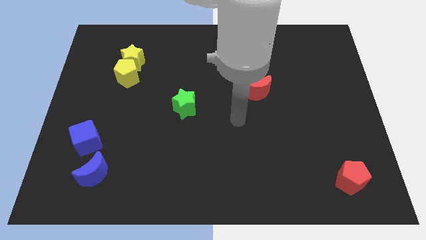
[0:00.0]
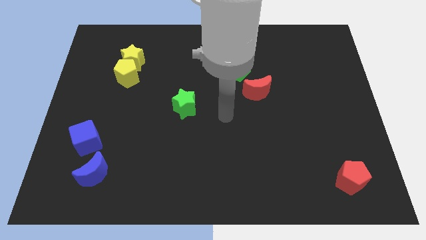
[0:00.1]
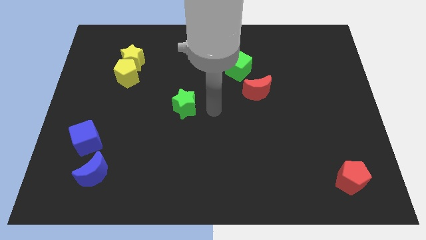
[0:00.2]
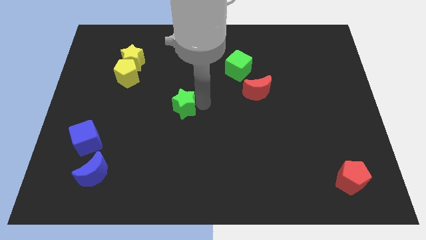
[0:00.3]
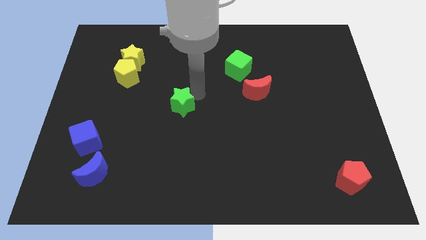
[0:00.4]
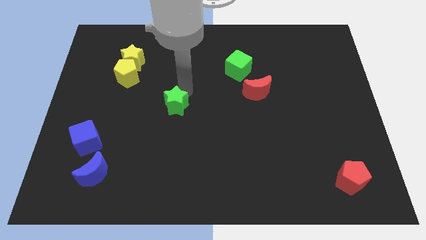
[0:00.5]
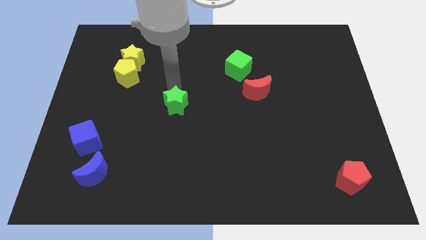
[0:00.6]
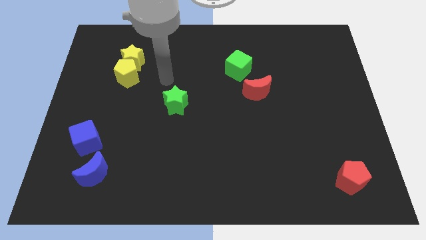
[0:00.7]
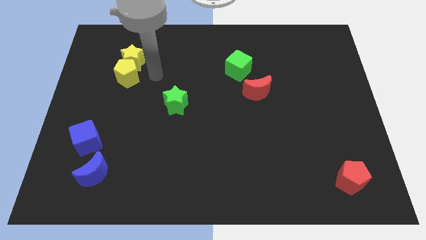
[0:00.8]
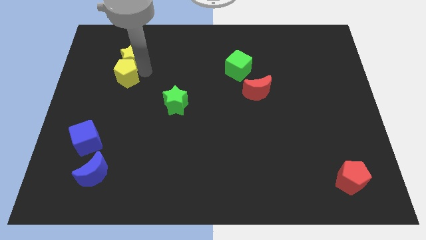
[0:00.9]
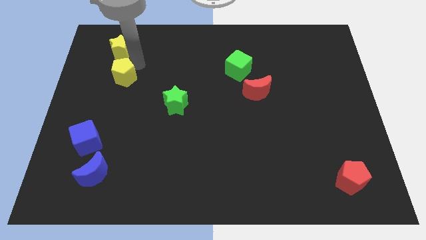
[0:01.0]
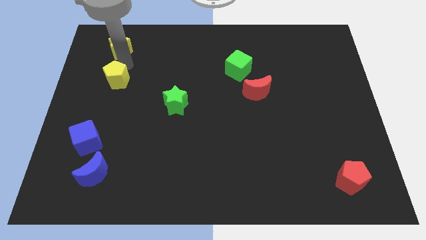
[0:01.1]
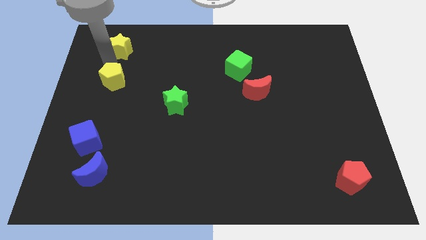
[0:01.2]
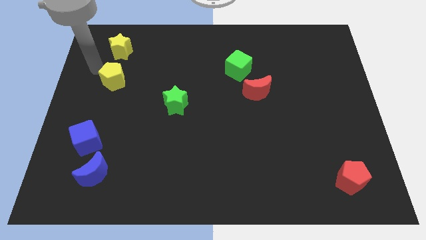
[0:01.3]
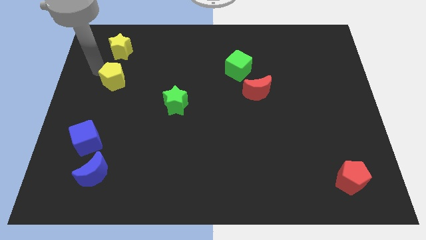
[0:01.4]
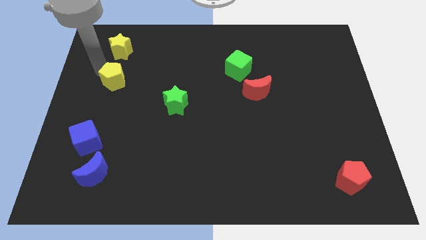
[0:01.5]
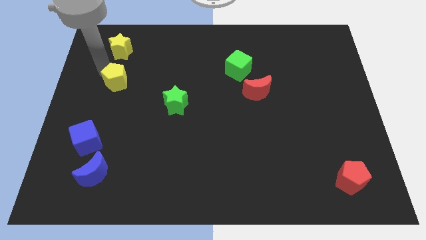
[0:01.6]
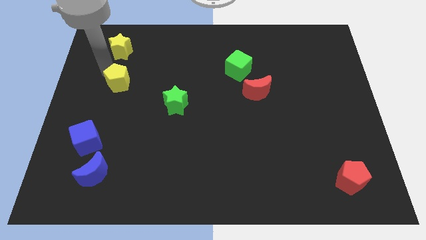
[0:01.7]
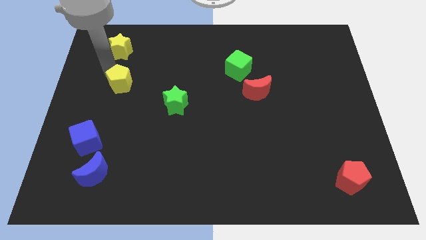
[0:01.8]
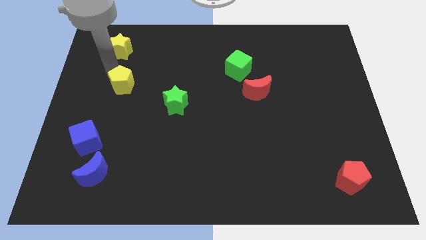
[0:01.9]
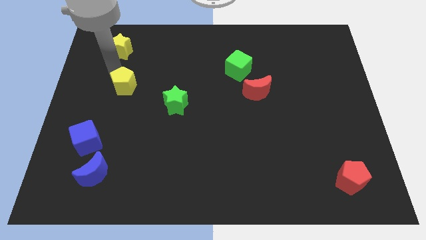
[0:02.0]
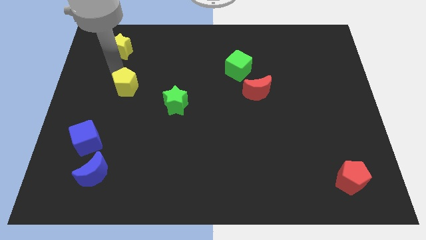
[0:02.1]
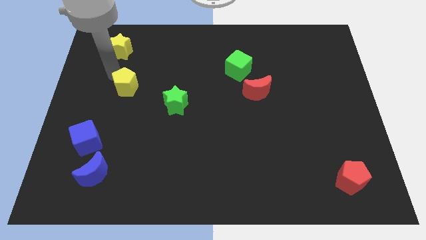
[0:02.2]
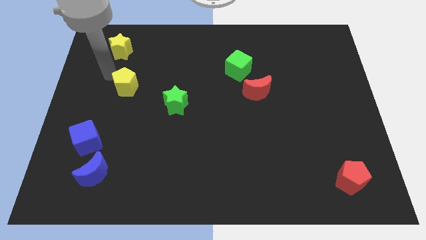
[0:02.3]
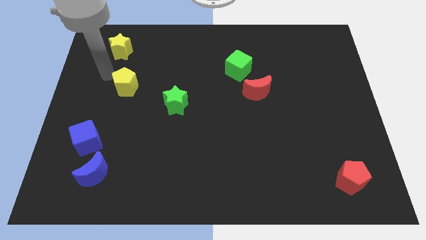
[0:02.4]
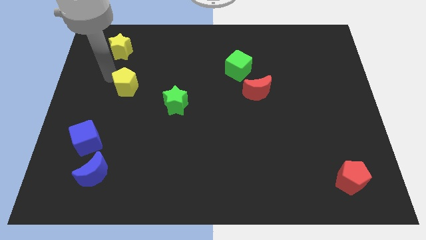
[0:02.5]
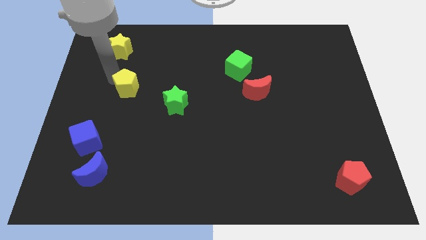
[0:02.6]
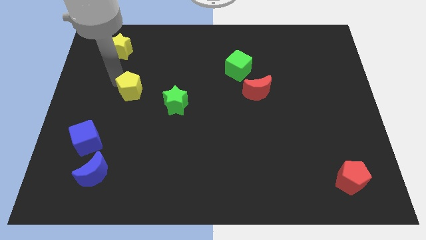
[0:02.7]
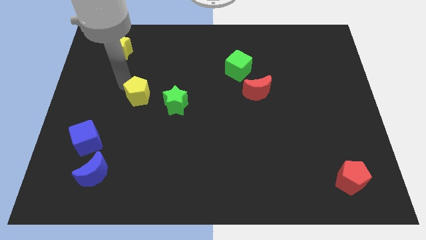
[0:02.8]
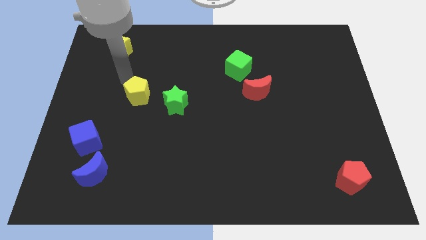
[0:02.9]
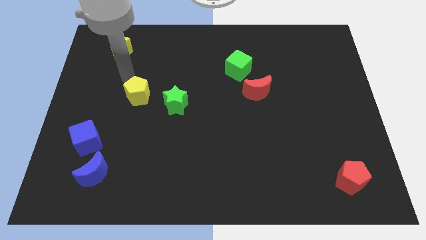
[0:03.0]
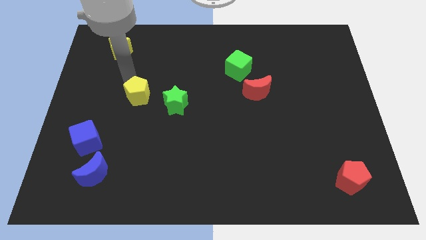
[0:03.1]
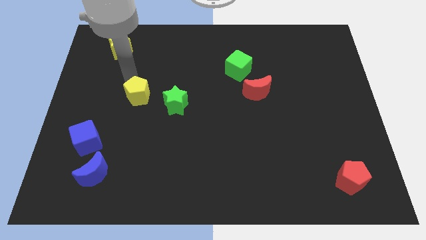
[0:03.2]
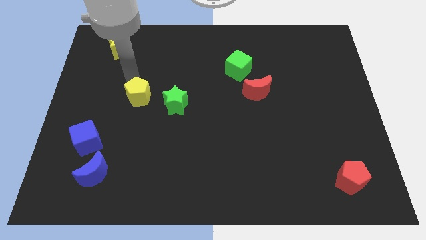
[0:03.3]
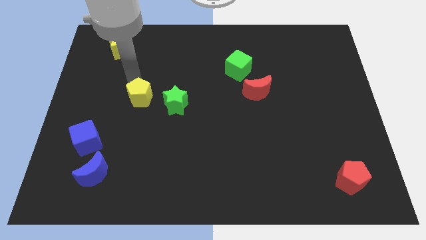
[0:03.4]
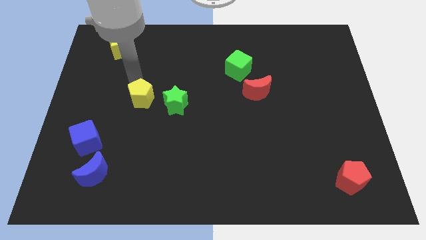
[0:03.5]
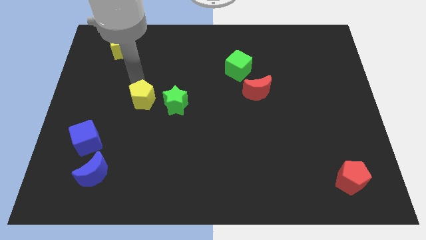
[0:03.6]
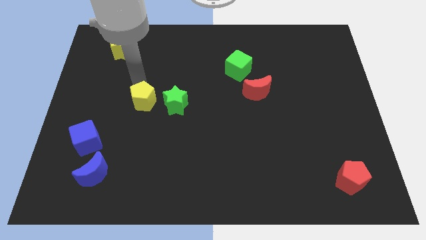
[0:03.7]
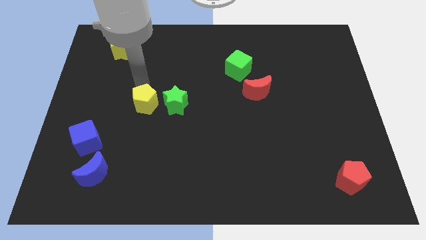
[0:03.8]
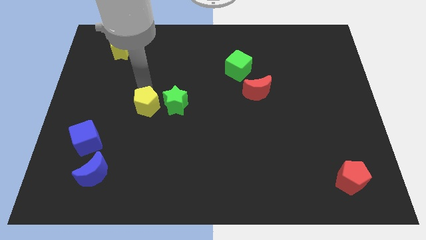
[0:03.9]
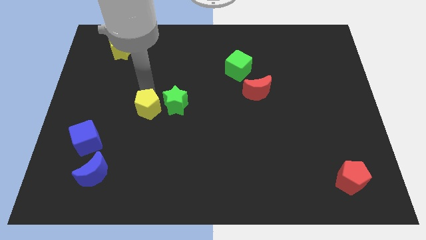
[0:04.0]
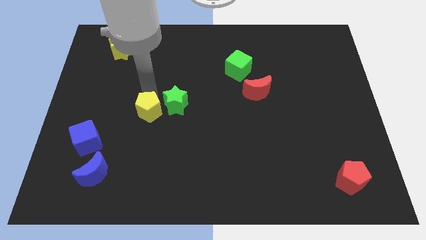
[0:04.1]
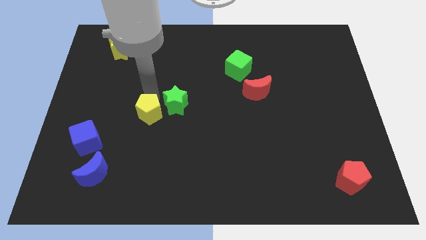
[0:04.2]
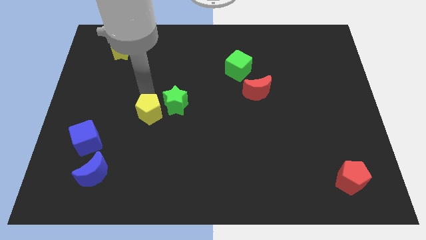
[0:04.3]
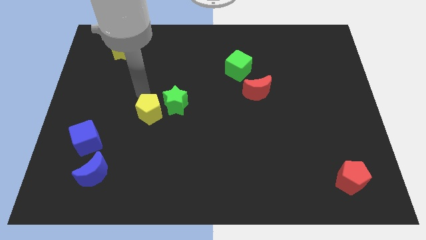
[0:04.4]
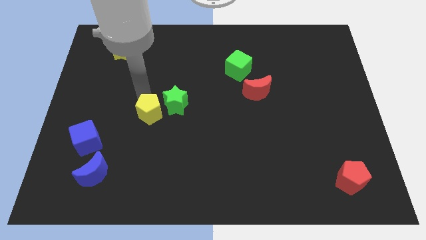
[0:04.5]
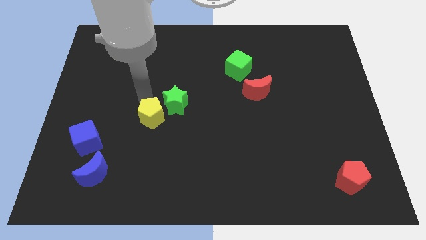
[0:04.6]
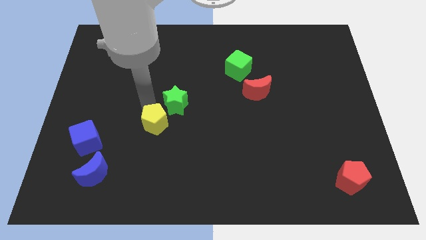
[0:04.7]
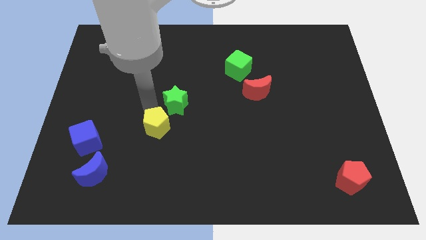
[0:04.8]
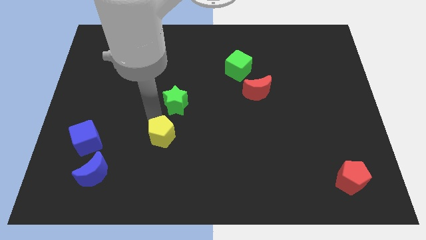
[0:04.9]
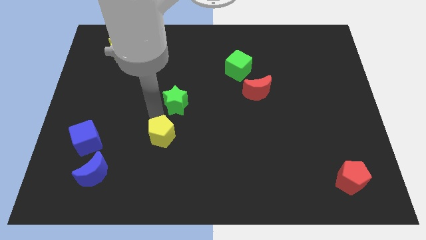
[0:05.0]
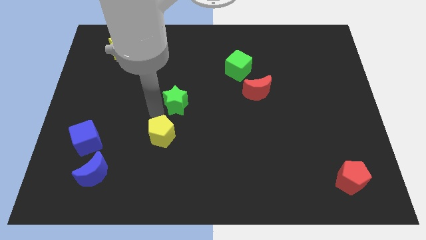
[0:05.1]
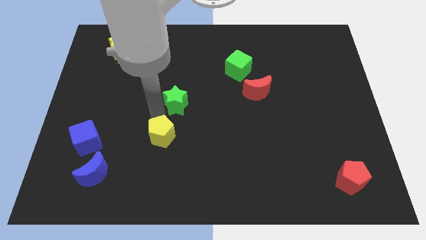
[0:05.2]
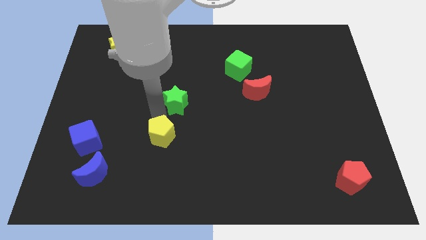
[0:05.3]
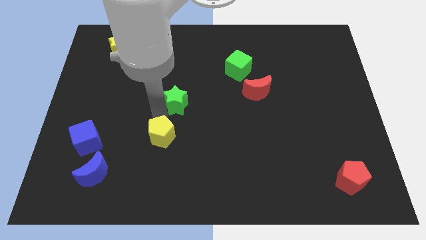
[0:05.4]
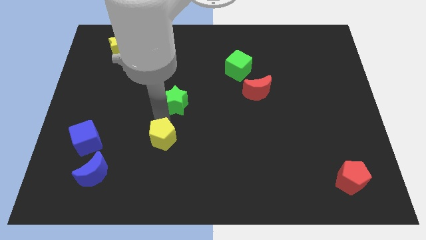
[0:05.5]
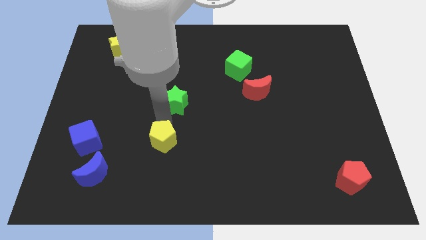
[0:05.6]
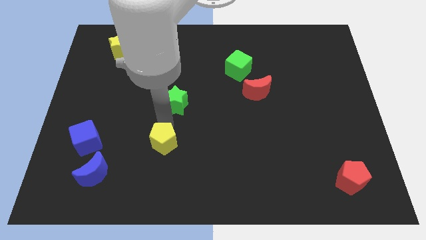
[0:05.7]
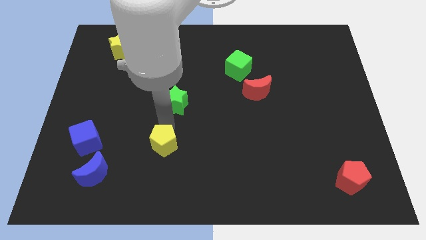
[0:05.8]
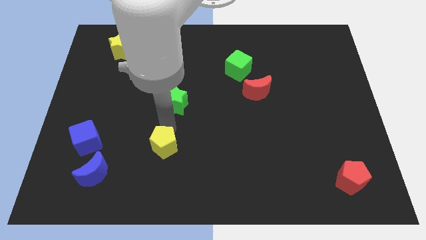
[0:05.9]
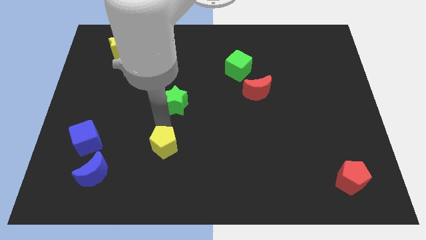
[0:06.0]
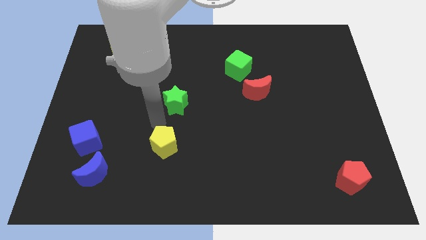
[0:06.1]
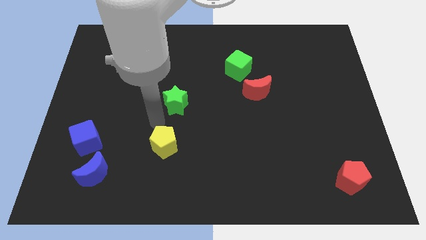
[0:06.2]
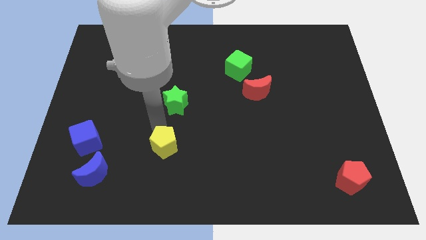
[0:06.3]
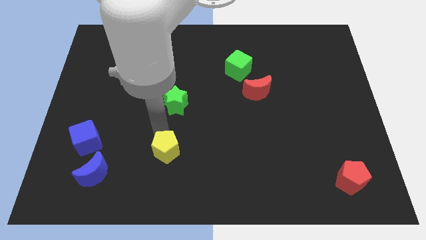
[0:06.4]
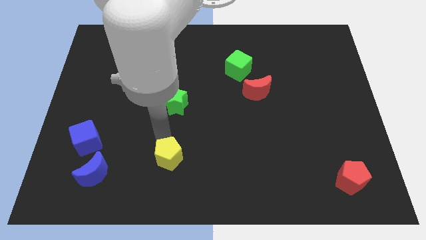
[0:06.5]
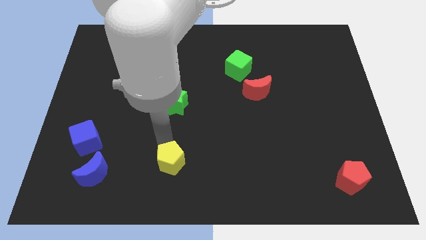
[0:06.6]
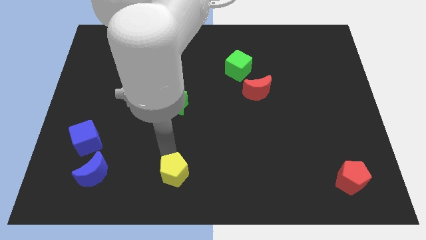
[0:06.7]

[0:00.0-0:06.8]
push the yellow pentagon to the bottom side
